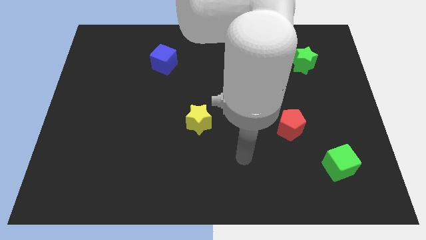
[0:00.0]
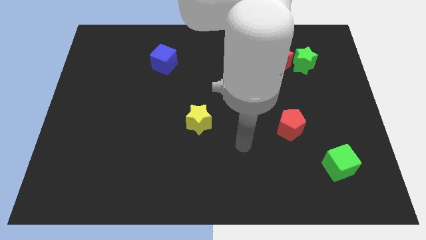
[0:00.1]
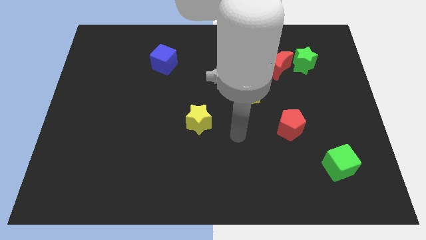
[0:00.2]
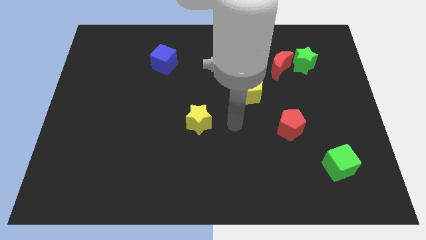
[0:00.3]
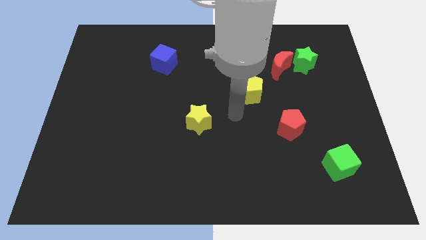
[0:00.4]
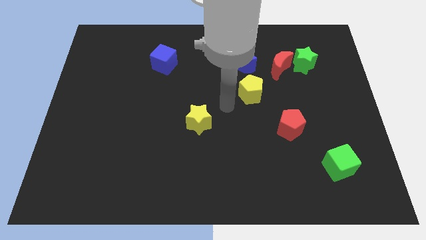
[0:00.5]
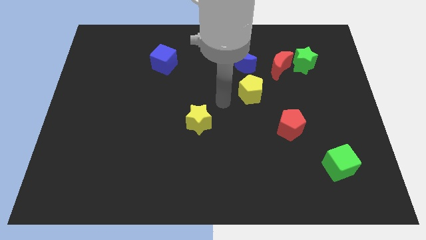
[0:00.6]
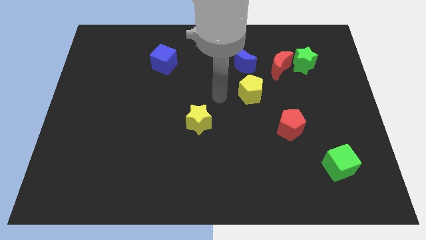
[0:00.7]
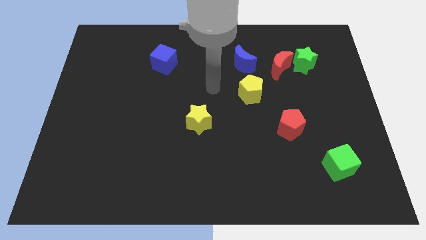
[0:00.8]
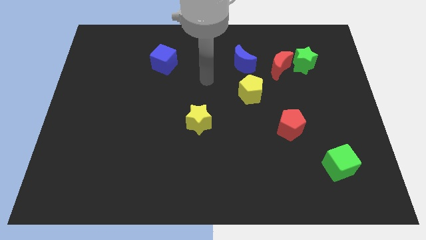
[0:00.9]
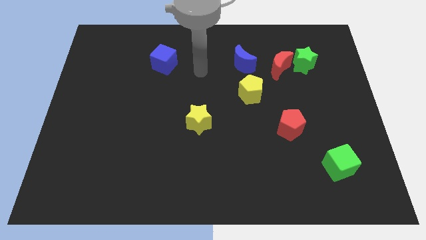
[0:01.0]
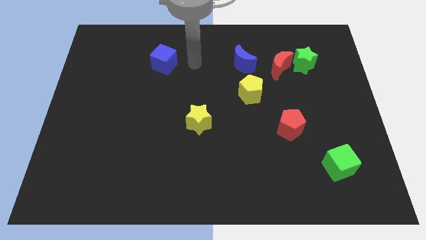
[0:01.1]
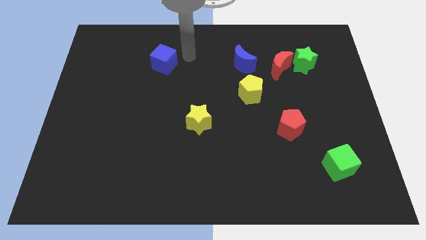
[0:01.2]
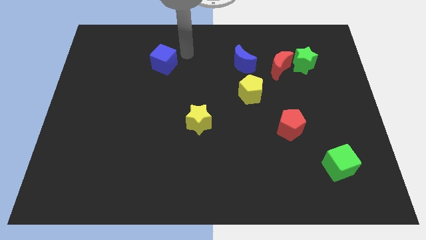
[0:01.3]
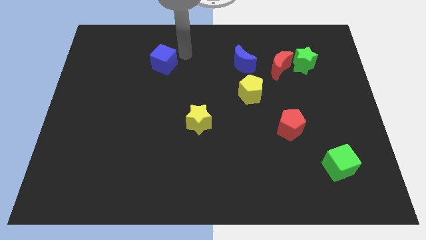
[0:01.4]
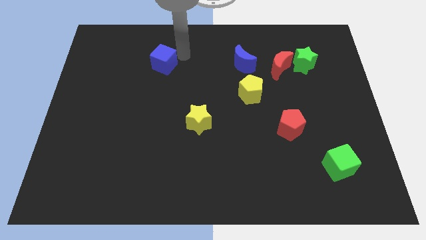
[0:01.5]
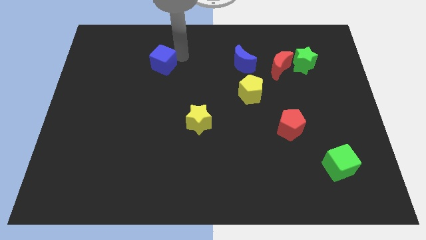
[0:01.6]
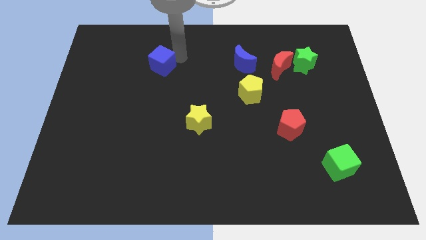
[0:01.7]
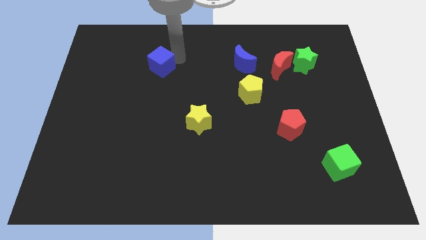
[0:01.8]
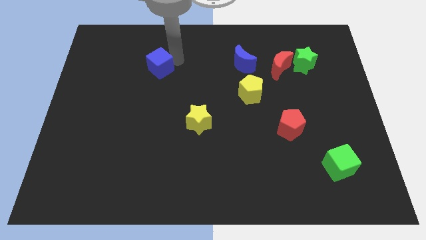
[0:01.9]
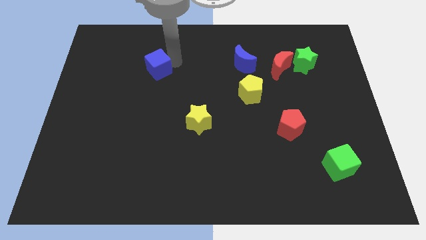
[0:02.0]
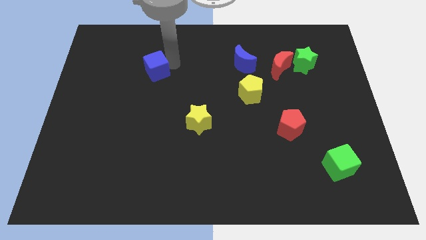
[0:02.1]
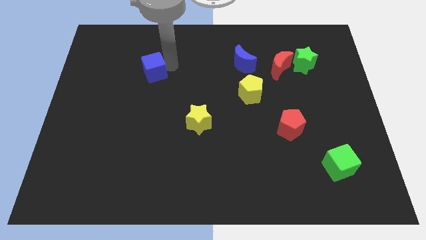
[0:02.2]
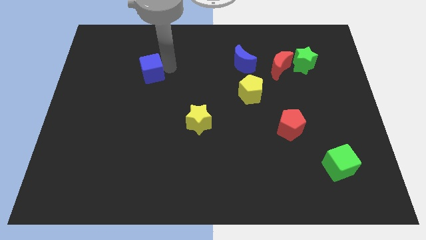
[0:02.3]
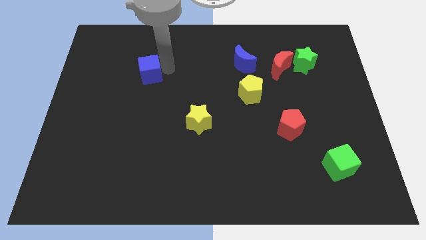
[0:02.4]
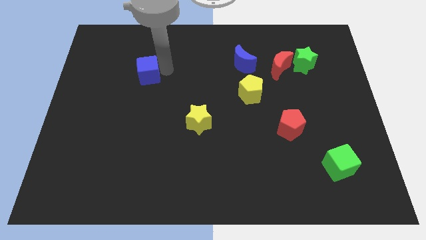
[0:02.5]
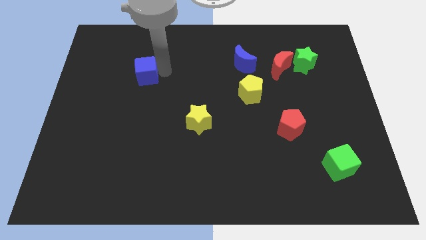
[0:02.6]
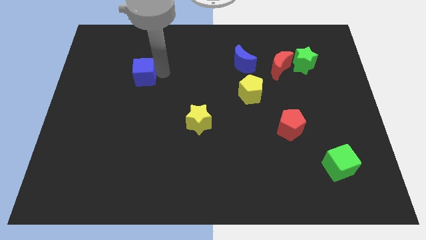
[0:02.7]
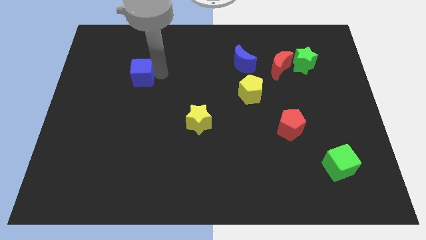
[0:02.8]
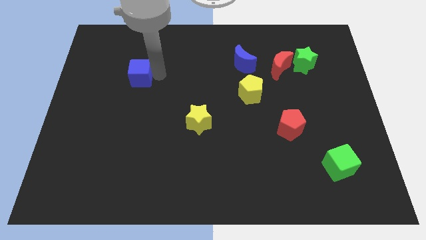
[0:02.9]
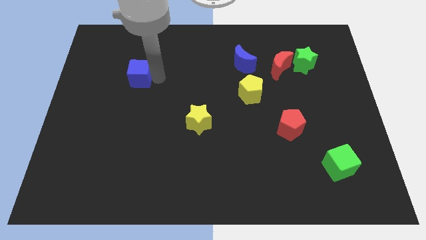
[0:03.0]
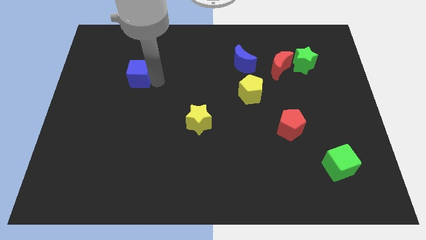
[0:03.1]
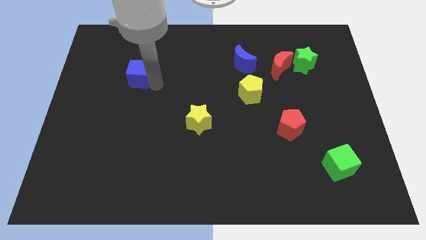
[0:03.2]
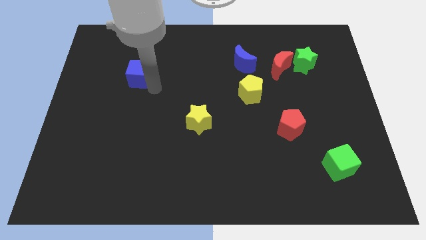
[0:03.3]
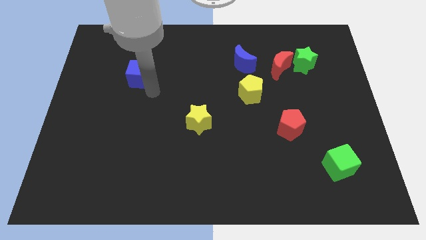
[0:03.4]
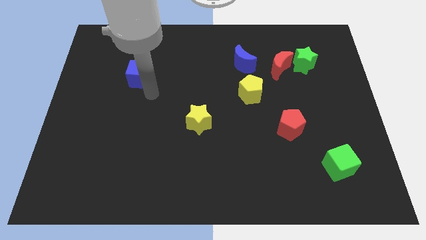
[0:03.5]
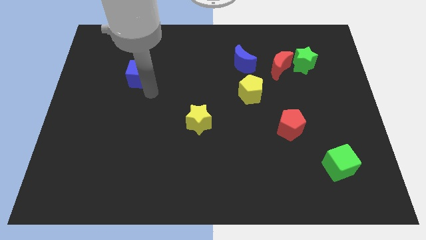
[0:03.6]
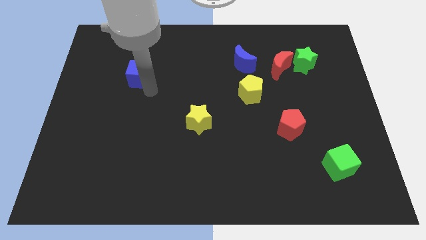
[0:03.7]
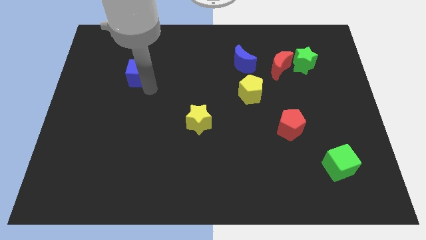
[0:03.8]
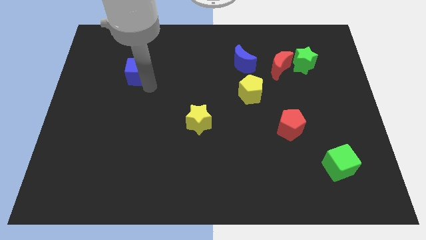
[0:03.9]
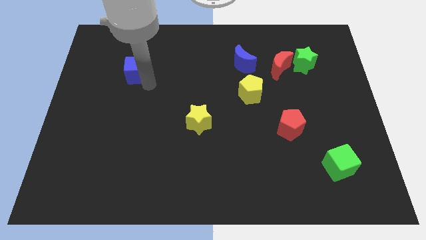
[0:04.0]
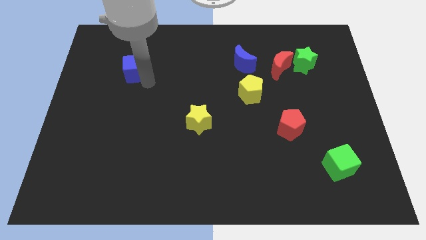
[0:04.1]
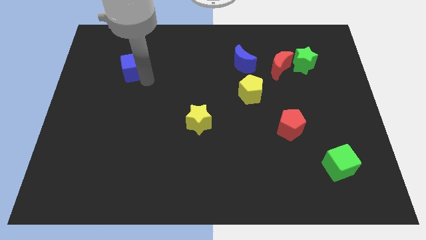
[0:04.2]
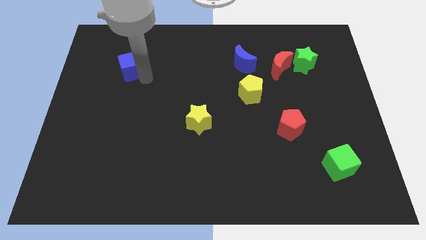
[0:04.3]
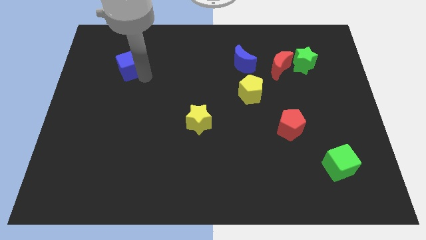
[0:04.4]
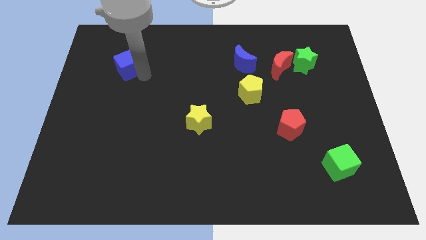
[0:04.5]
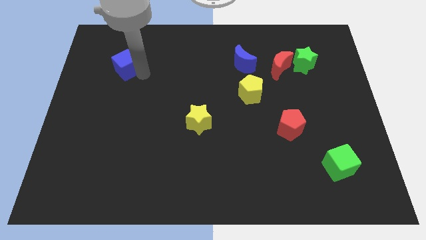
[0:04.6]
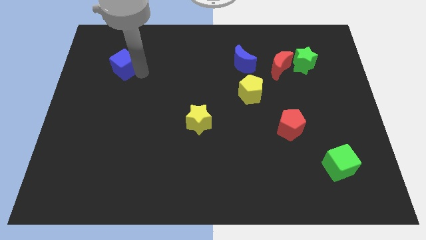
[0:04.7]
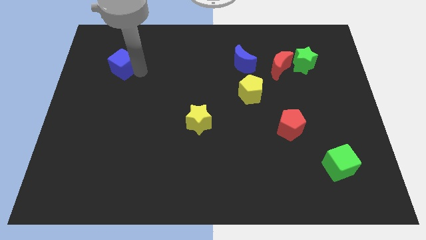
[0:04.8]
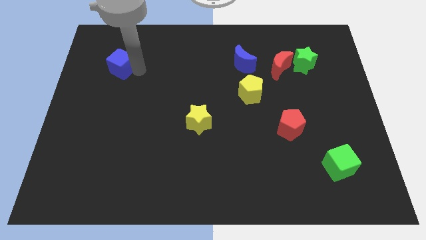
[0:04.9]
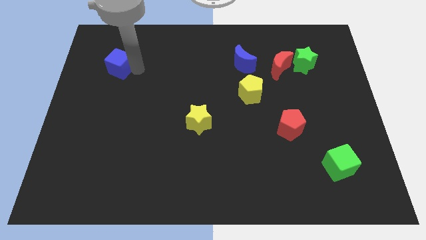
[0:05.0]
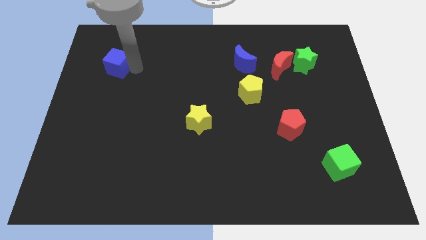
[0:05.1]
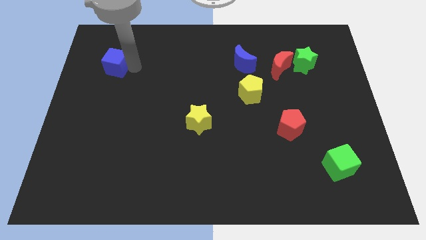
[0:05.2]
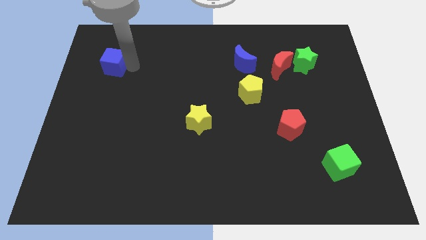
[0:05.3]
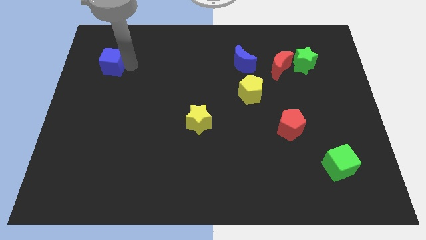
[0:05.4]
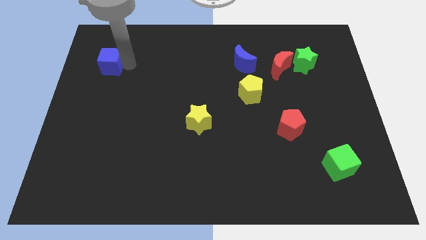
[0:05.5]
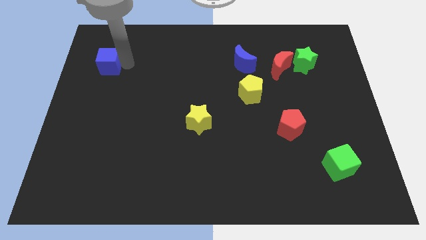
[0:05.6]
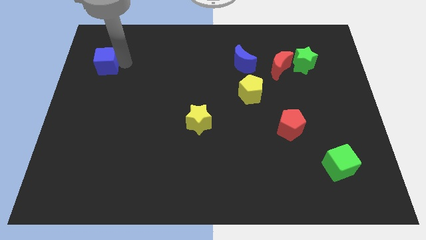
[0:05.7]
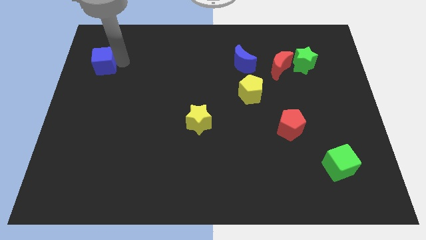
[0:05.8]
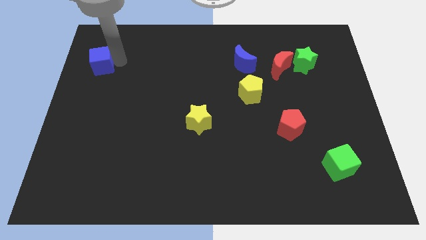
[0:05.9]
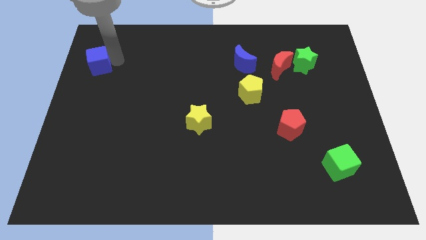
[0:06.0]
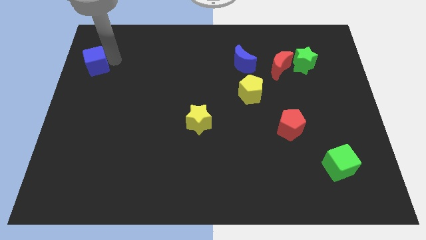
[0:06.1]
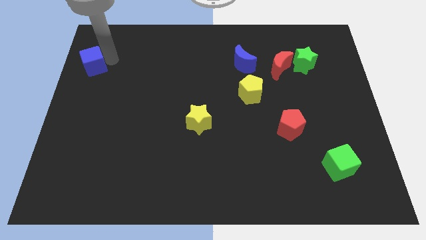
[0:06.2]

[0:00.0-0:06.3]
push the blue cube to the left side

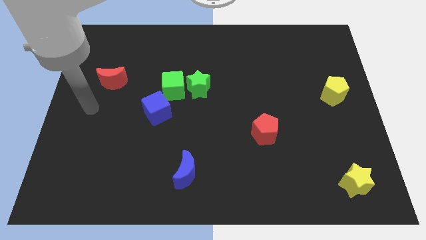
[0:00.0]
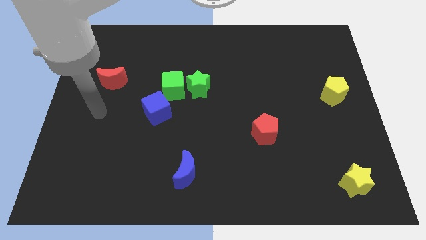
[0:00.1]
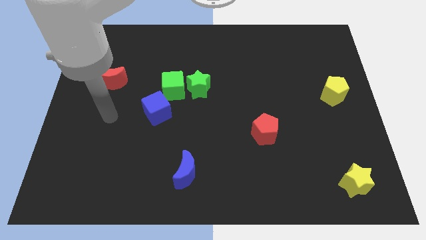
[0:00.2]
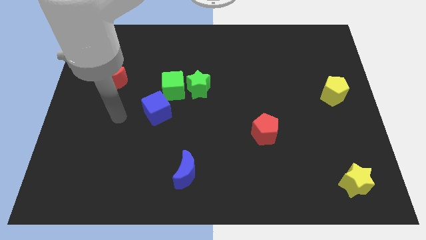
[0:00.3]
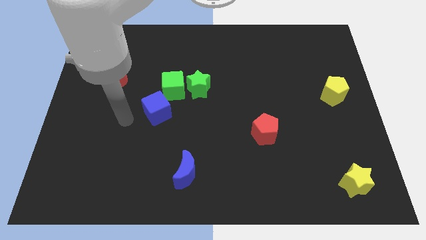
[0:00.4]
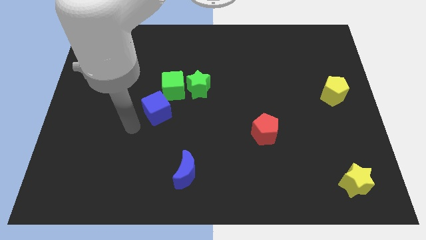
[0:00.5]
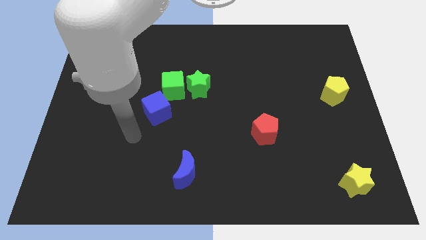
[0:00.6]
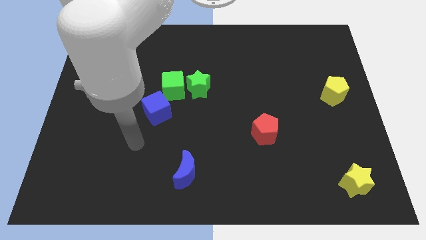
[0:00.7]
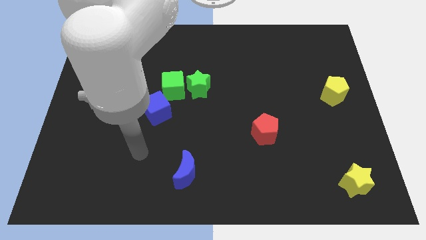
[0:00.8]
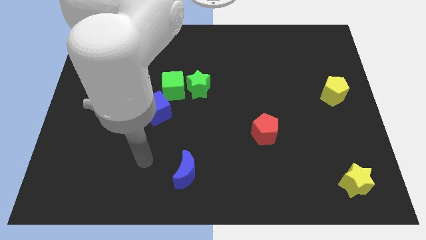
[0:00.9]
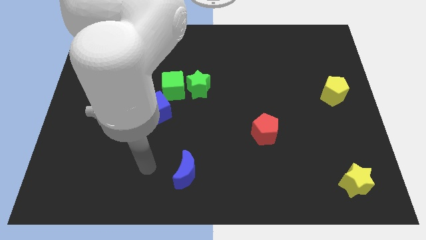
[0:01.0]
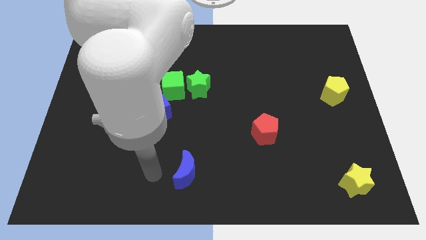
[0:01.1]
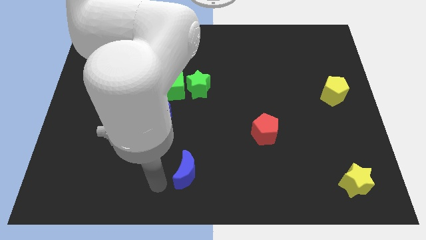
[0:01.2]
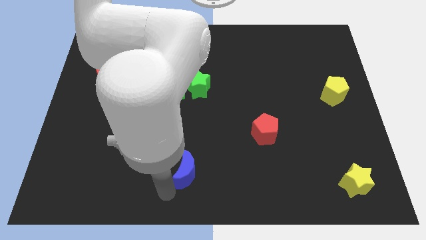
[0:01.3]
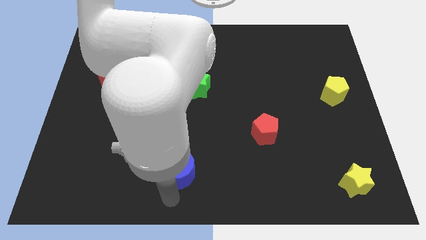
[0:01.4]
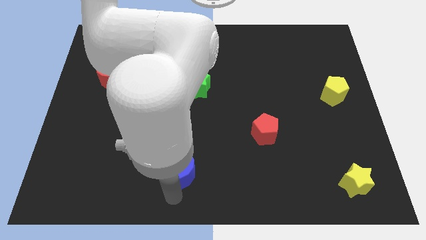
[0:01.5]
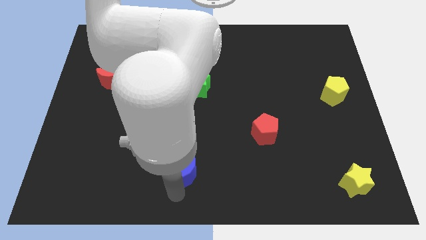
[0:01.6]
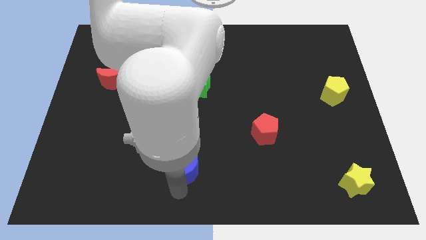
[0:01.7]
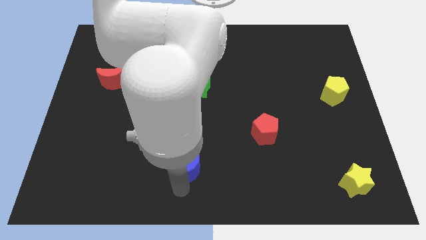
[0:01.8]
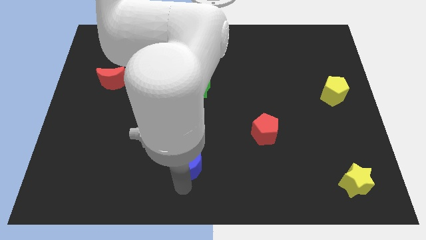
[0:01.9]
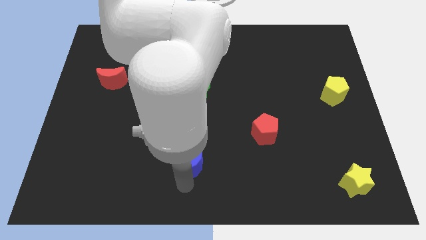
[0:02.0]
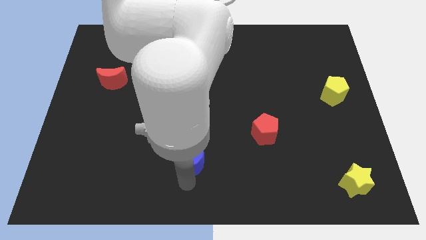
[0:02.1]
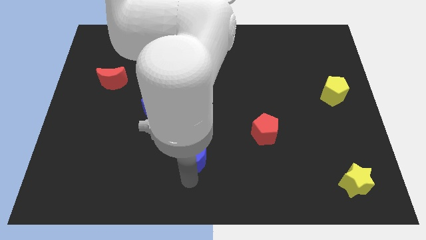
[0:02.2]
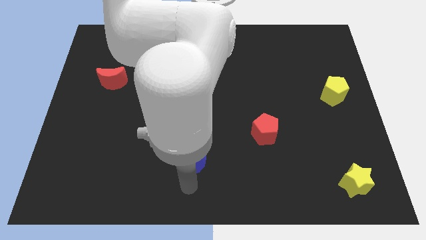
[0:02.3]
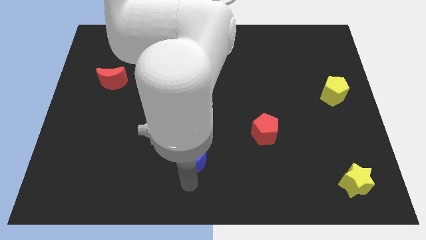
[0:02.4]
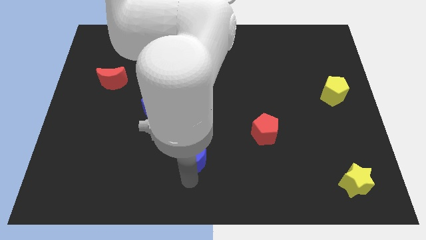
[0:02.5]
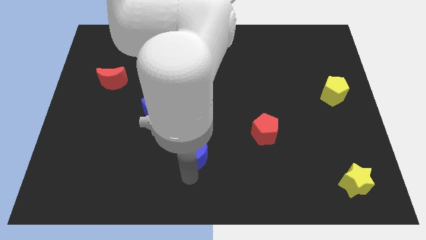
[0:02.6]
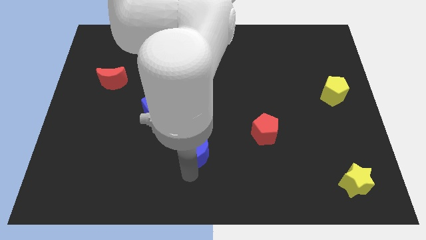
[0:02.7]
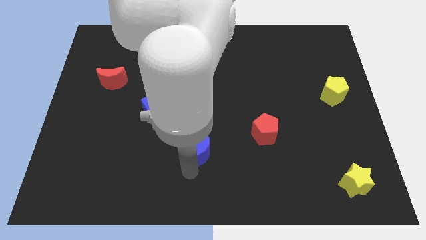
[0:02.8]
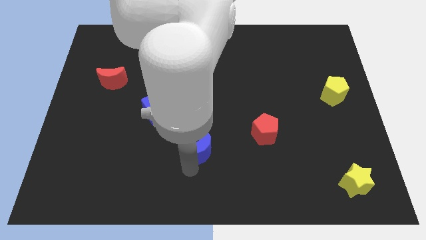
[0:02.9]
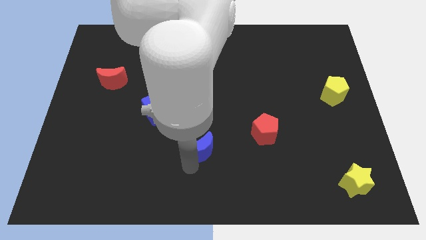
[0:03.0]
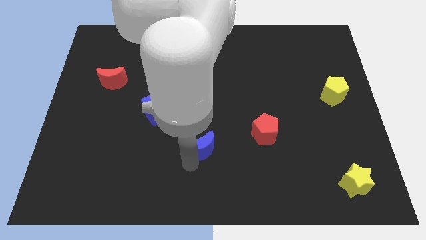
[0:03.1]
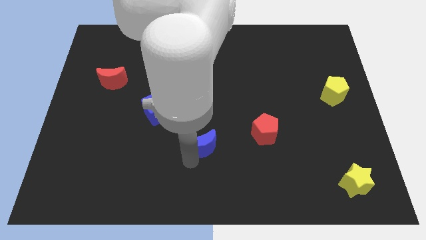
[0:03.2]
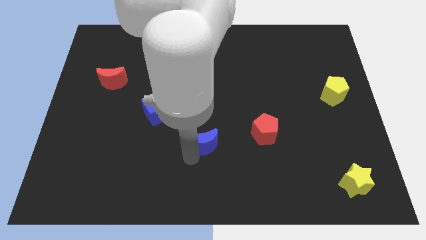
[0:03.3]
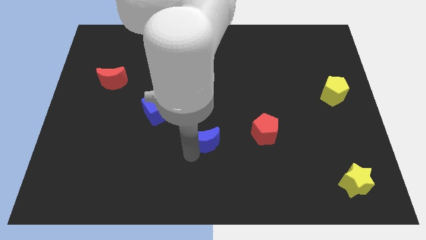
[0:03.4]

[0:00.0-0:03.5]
push the blue moon to the center
